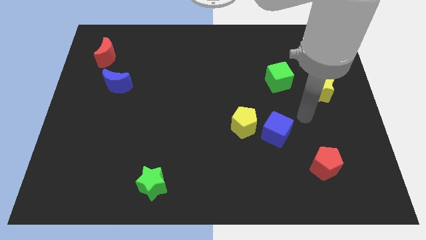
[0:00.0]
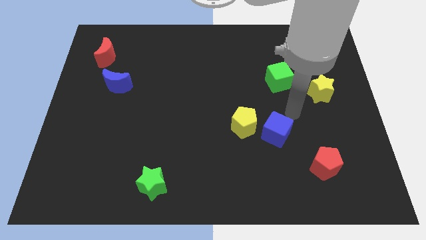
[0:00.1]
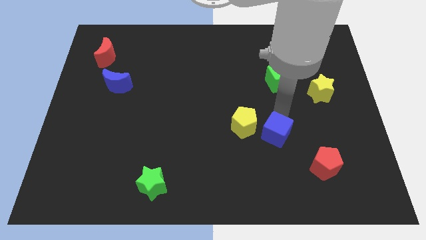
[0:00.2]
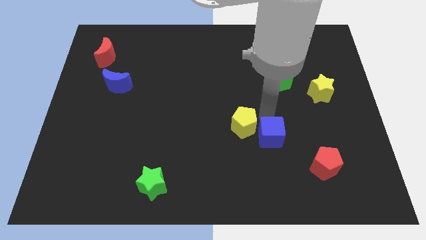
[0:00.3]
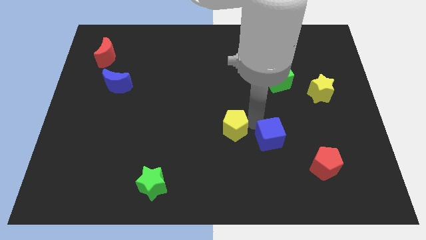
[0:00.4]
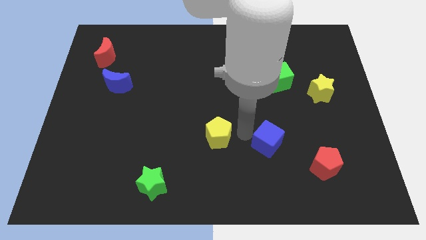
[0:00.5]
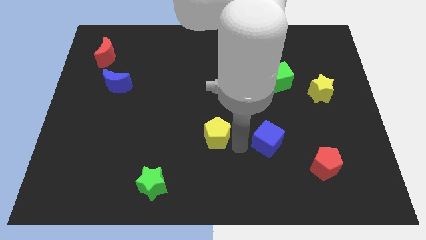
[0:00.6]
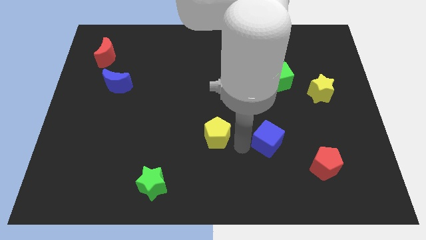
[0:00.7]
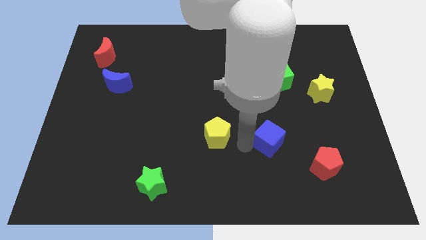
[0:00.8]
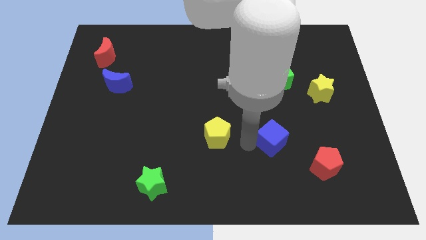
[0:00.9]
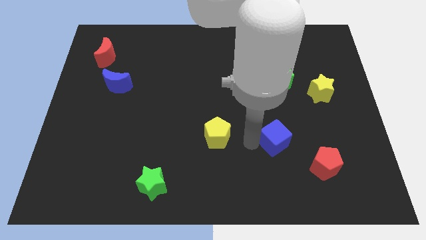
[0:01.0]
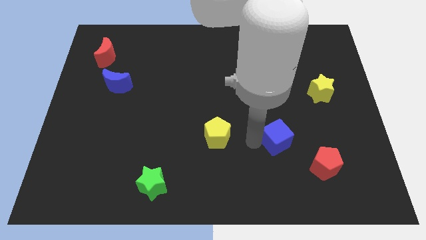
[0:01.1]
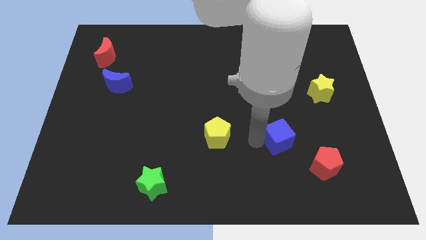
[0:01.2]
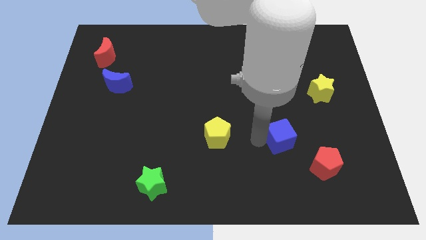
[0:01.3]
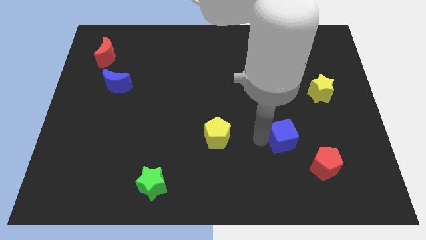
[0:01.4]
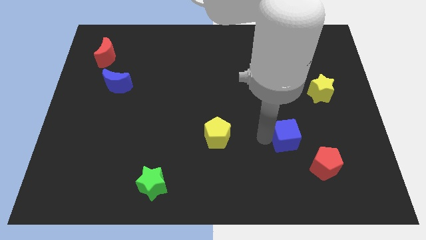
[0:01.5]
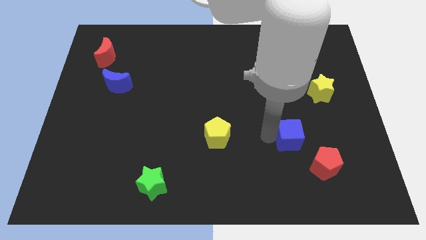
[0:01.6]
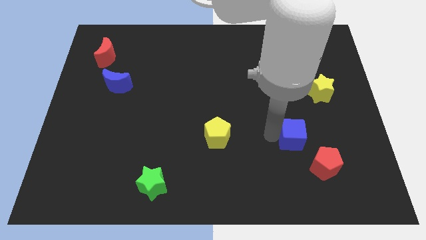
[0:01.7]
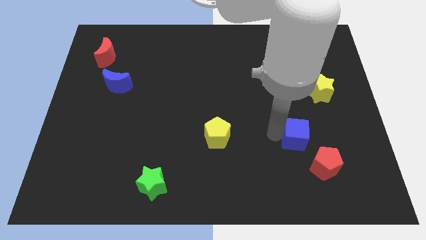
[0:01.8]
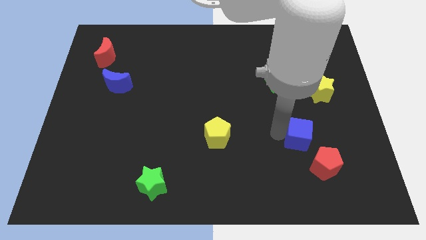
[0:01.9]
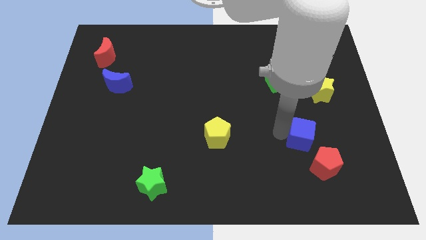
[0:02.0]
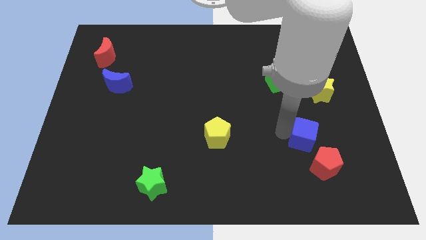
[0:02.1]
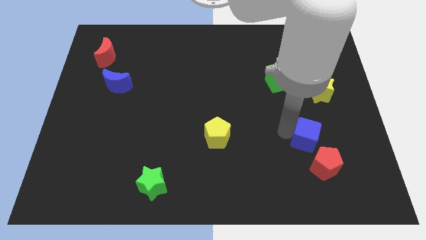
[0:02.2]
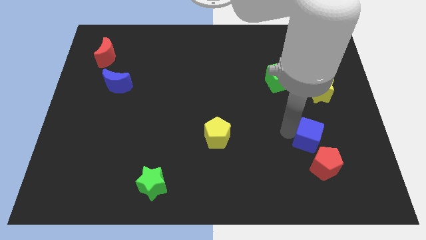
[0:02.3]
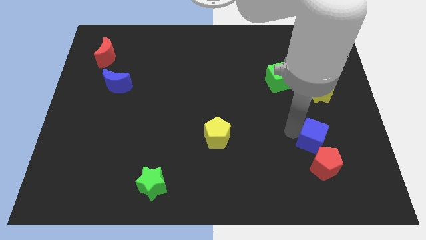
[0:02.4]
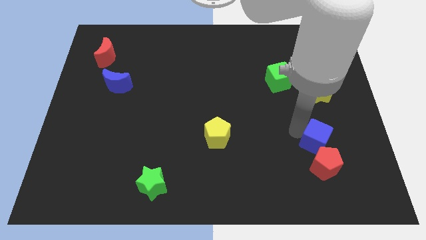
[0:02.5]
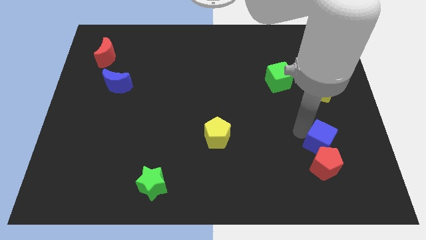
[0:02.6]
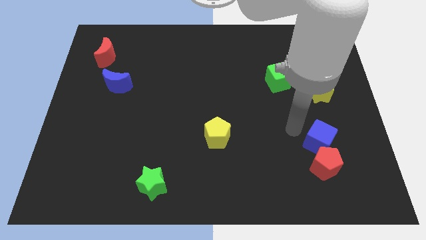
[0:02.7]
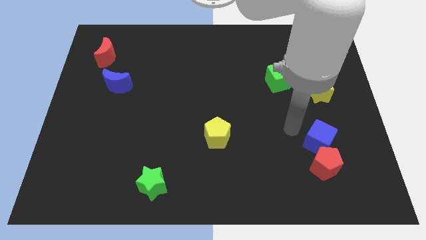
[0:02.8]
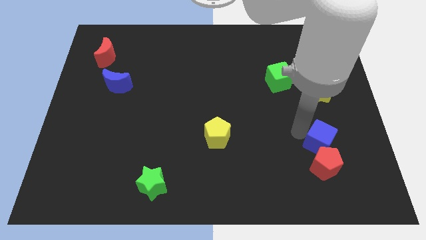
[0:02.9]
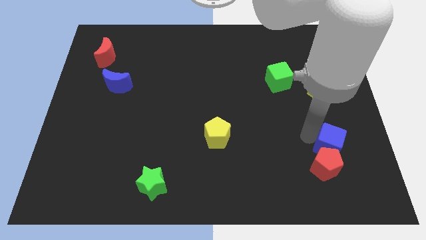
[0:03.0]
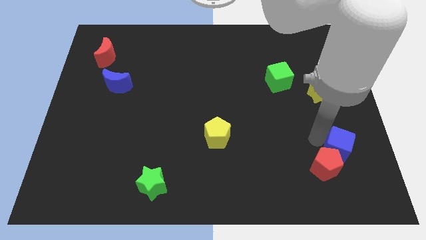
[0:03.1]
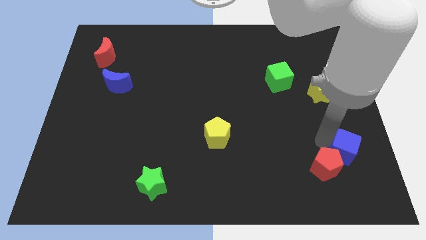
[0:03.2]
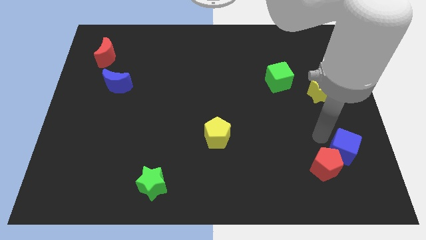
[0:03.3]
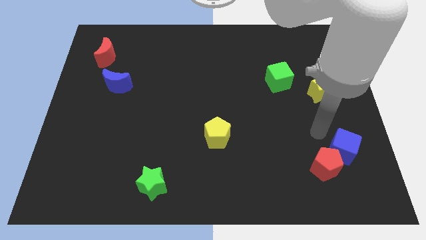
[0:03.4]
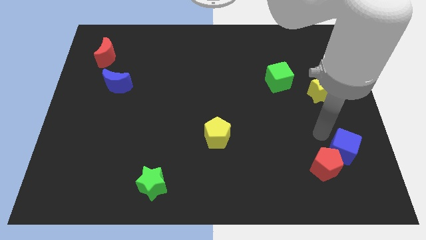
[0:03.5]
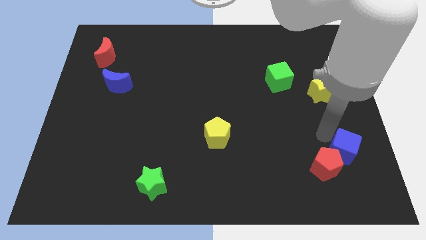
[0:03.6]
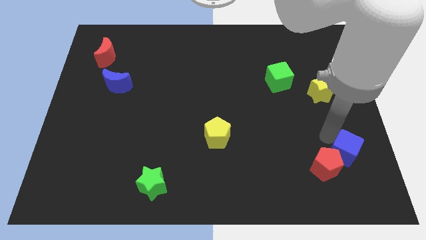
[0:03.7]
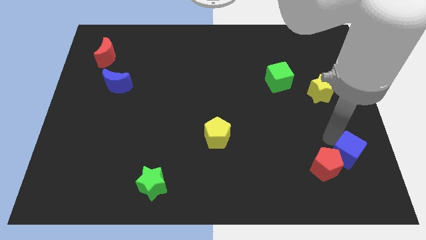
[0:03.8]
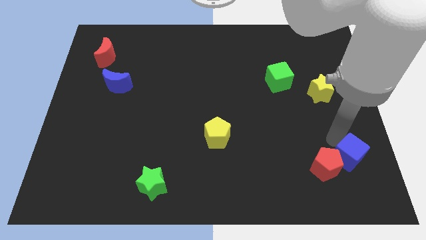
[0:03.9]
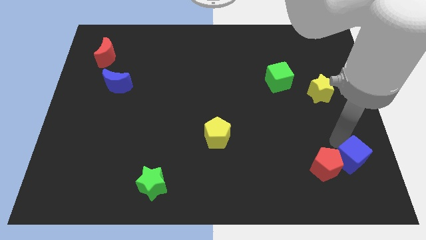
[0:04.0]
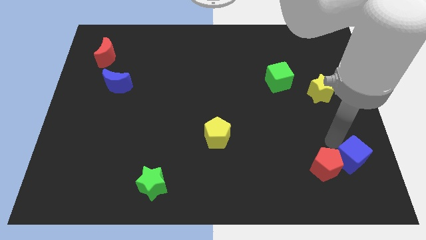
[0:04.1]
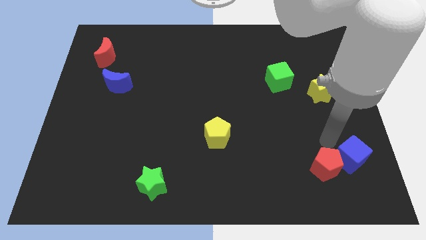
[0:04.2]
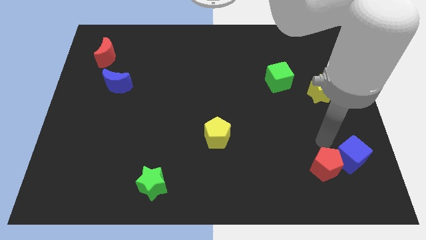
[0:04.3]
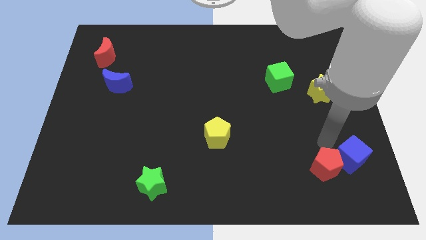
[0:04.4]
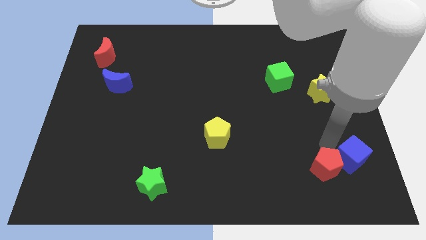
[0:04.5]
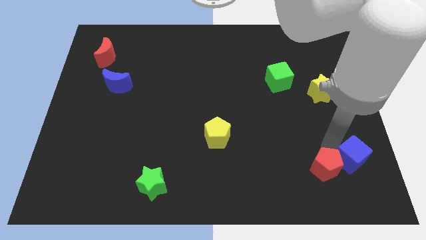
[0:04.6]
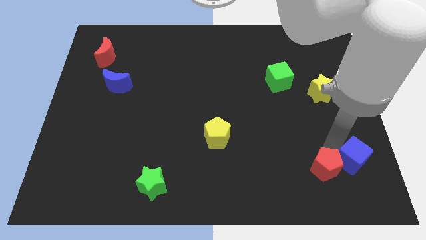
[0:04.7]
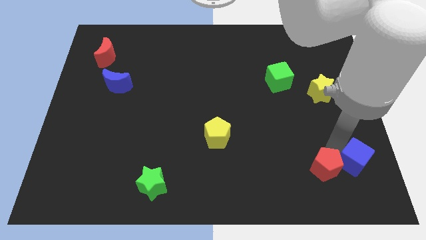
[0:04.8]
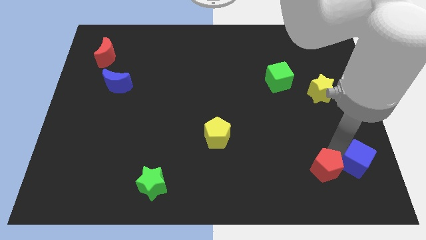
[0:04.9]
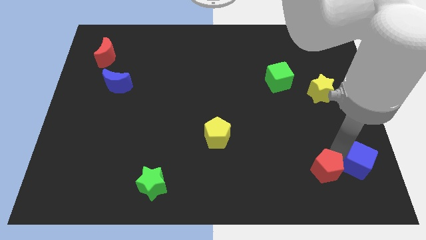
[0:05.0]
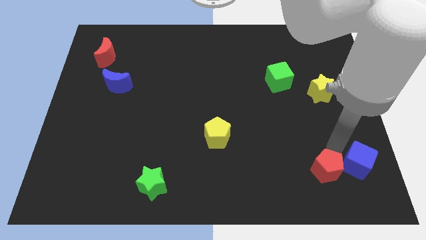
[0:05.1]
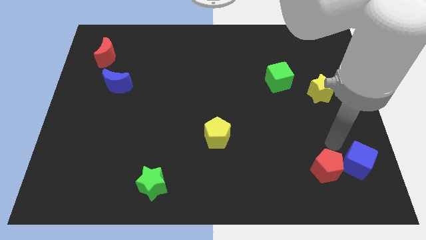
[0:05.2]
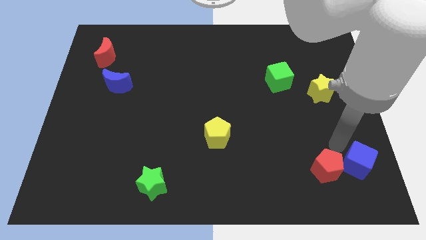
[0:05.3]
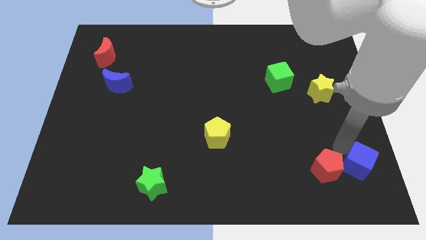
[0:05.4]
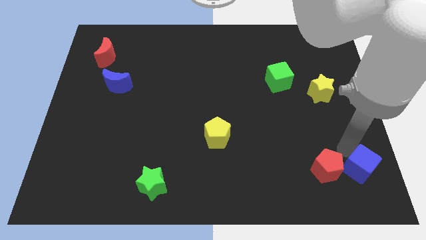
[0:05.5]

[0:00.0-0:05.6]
push the blue cube to the bottom right corner

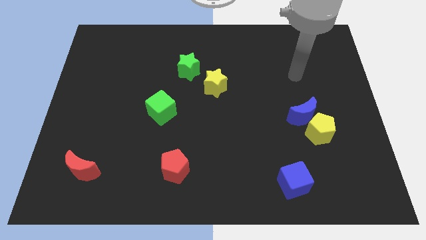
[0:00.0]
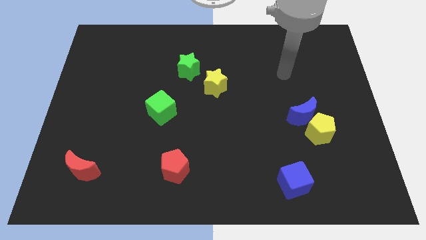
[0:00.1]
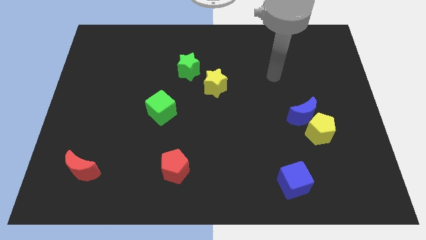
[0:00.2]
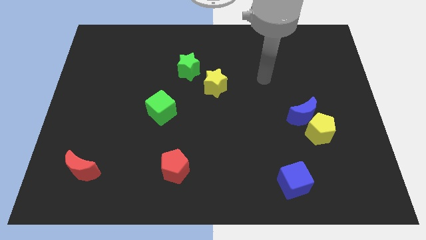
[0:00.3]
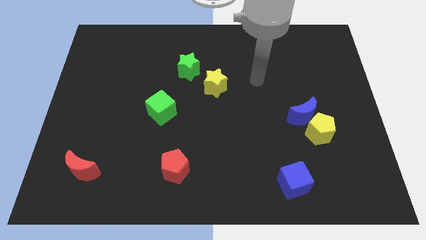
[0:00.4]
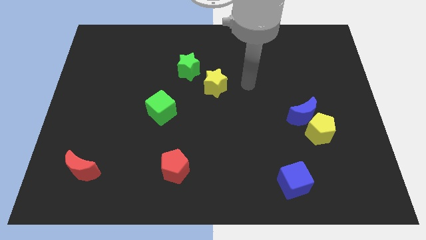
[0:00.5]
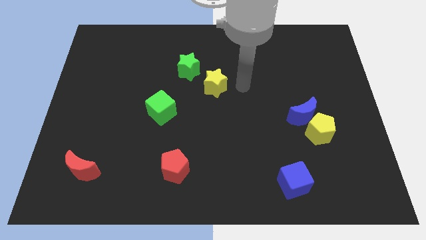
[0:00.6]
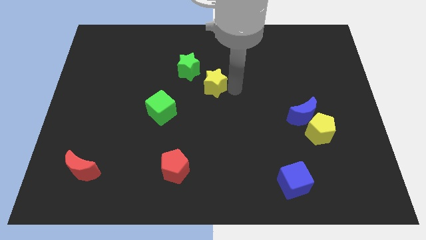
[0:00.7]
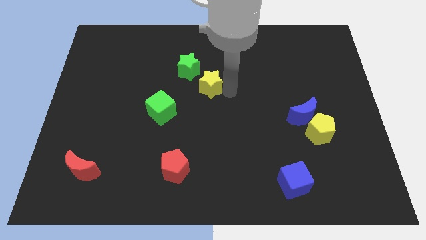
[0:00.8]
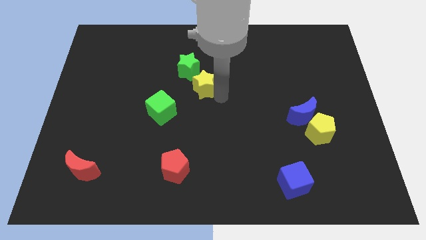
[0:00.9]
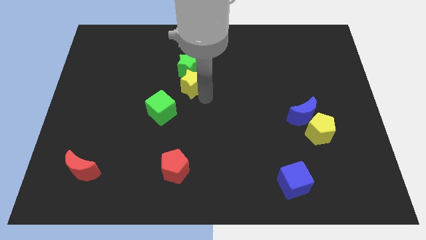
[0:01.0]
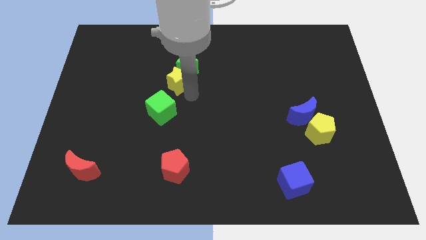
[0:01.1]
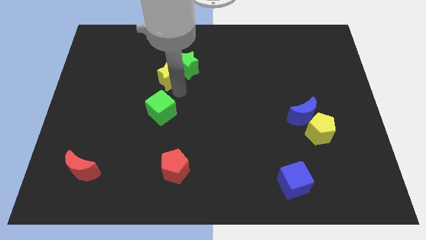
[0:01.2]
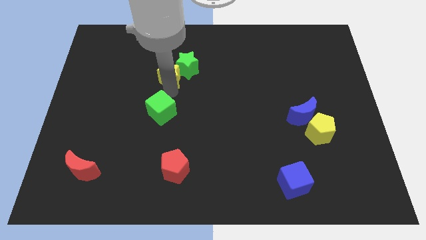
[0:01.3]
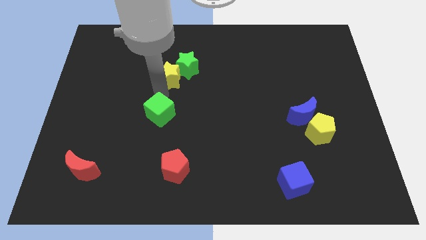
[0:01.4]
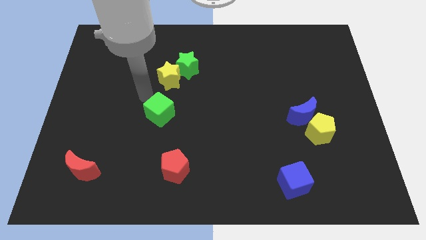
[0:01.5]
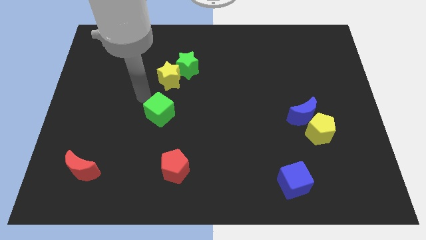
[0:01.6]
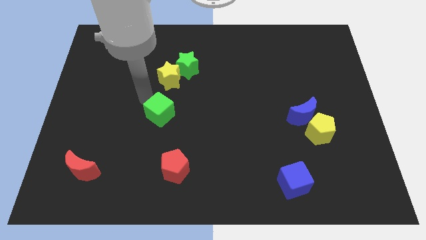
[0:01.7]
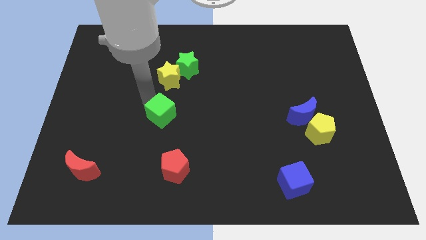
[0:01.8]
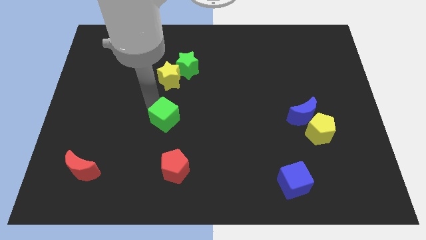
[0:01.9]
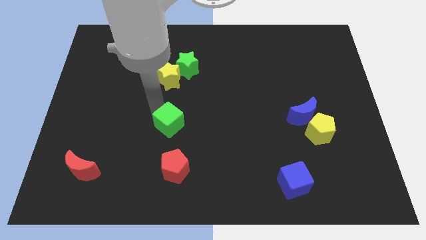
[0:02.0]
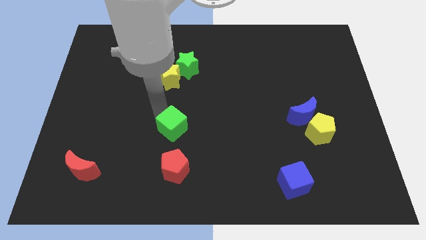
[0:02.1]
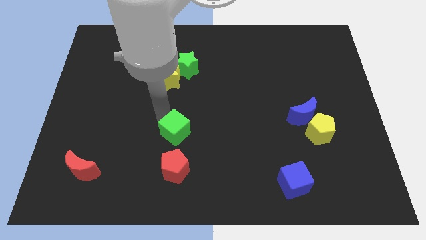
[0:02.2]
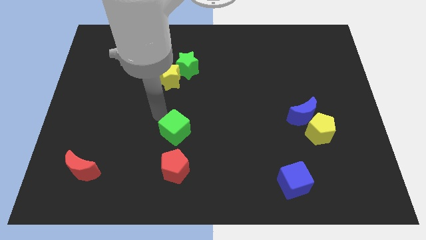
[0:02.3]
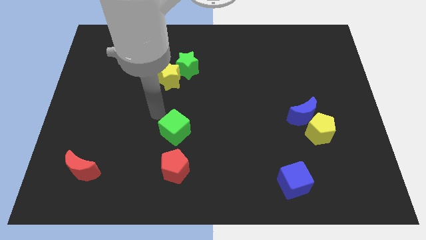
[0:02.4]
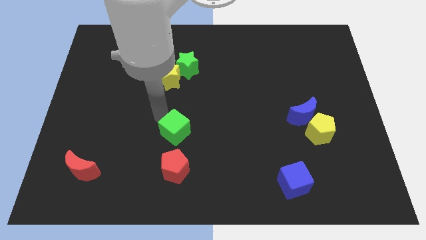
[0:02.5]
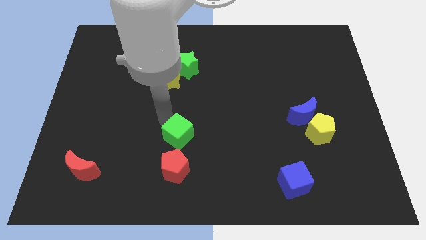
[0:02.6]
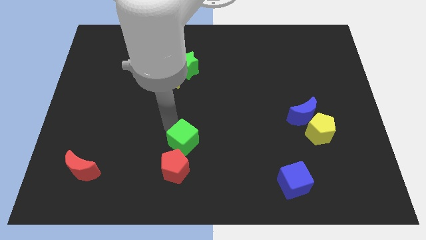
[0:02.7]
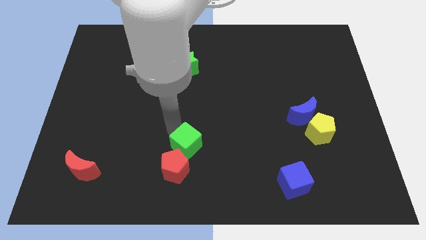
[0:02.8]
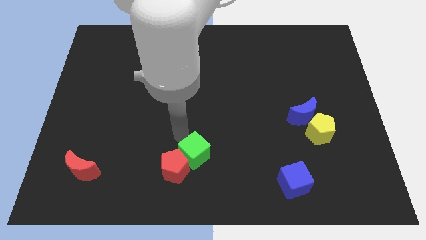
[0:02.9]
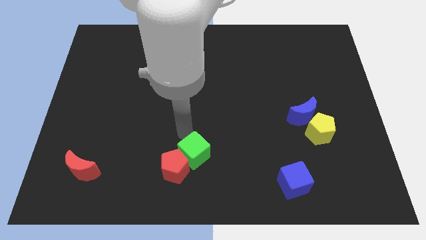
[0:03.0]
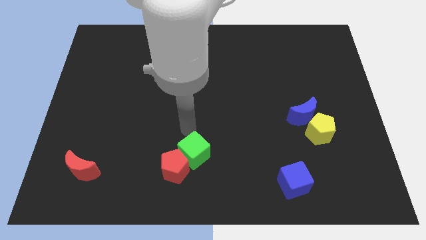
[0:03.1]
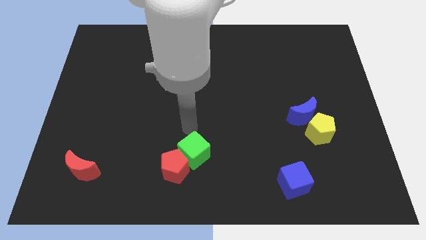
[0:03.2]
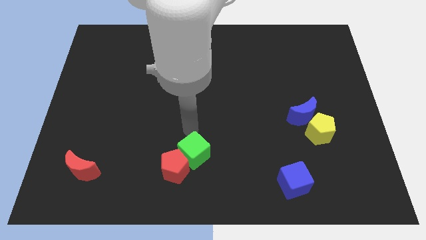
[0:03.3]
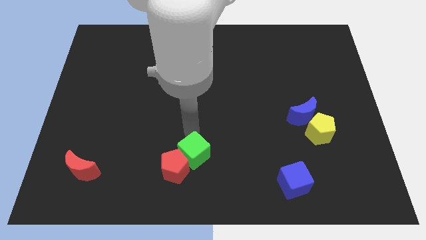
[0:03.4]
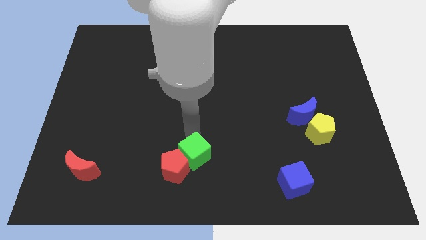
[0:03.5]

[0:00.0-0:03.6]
put the green cube to the bottom side
